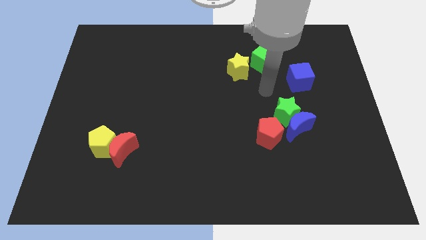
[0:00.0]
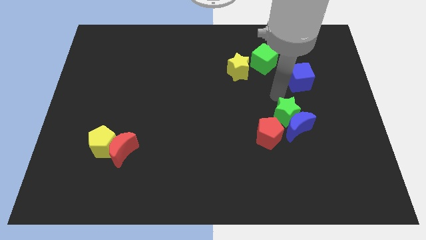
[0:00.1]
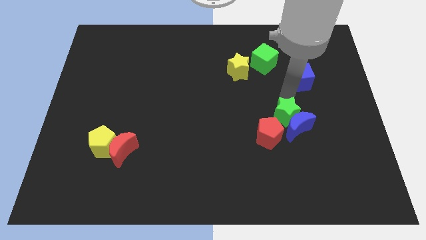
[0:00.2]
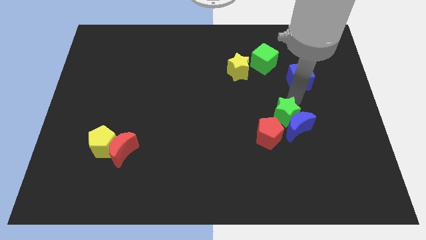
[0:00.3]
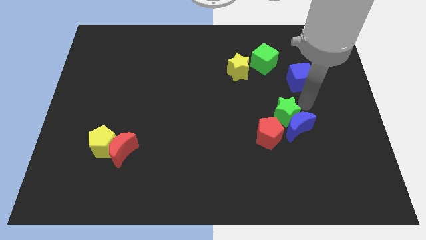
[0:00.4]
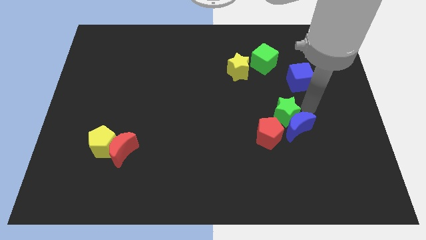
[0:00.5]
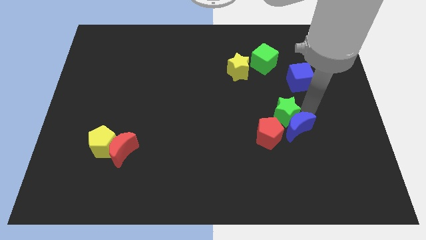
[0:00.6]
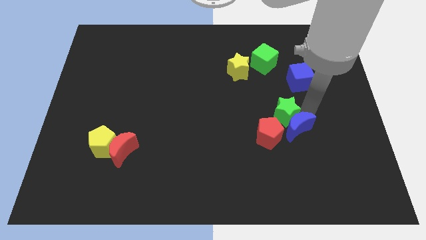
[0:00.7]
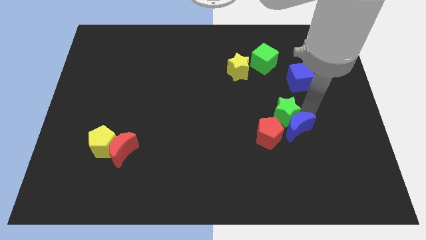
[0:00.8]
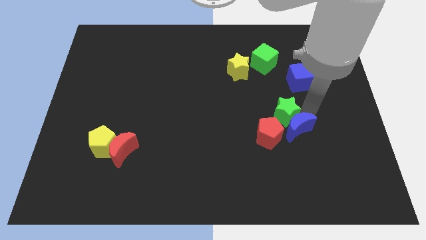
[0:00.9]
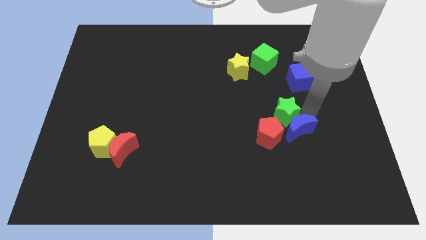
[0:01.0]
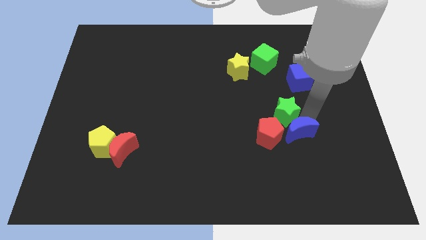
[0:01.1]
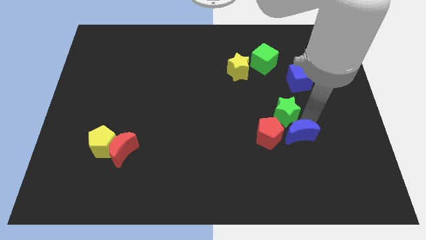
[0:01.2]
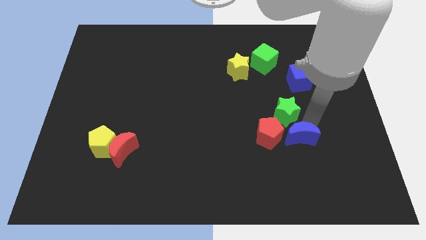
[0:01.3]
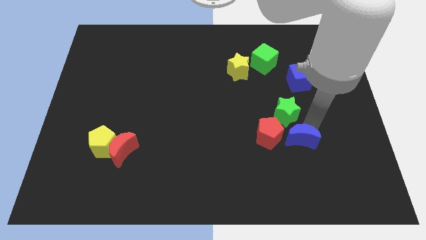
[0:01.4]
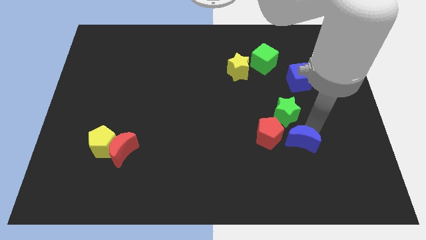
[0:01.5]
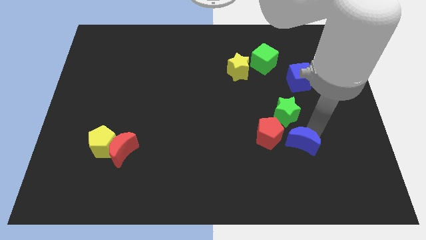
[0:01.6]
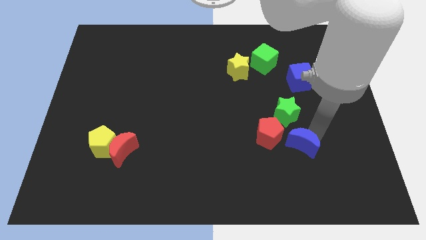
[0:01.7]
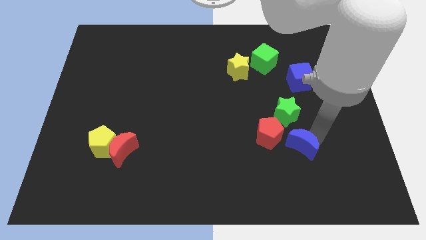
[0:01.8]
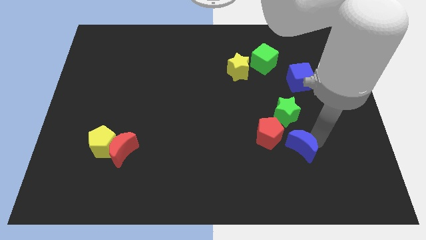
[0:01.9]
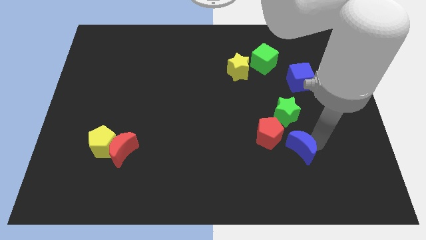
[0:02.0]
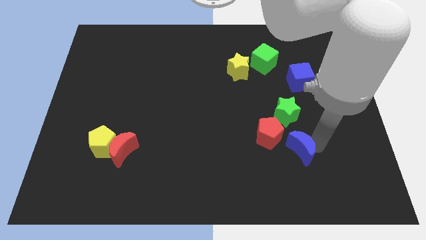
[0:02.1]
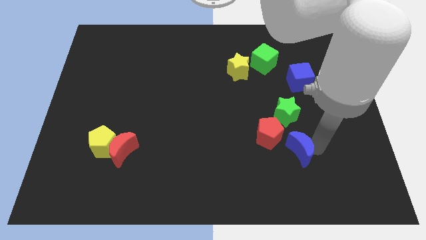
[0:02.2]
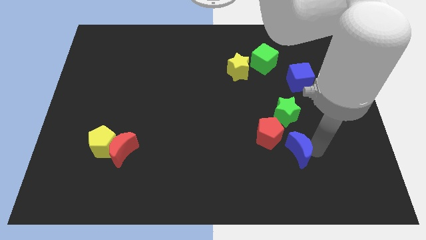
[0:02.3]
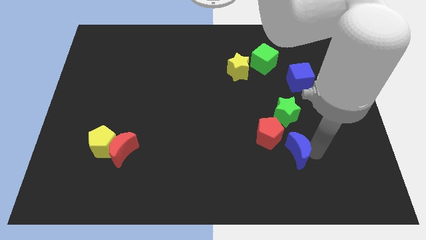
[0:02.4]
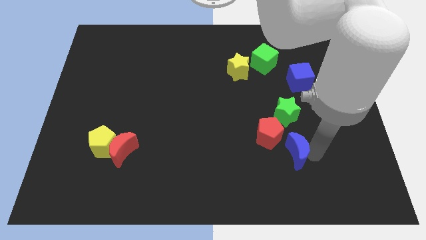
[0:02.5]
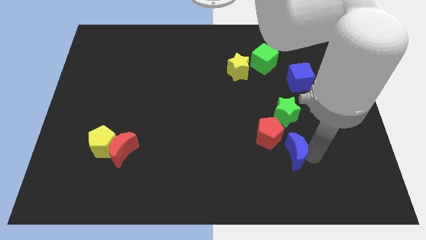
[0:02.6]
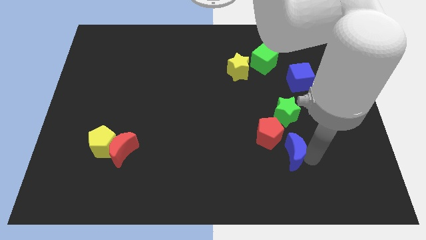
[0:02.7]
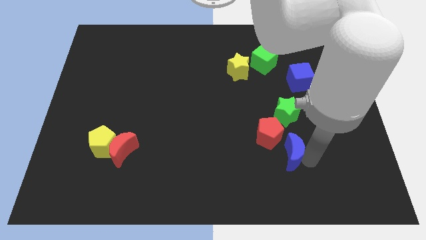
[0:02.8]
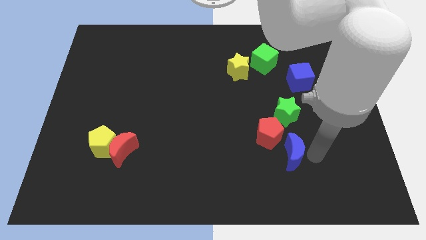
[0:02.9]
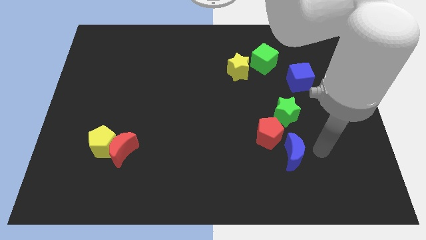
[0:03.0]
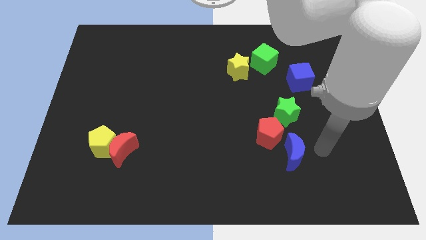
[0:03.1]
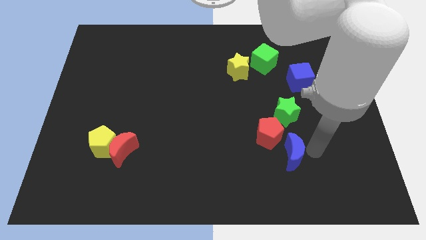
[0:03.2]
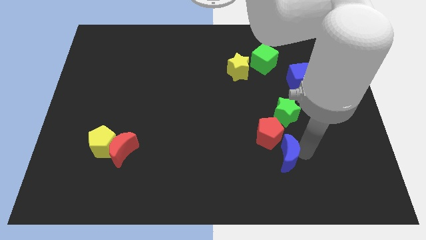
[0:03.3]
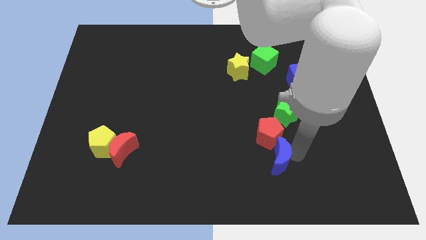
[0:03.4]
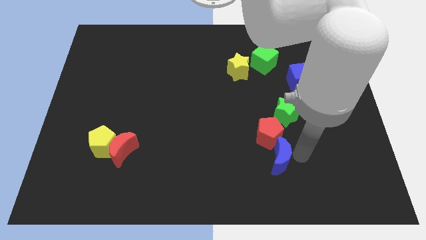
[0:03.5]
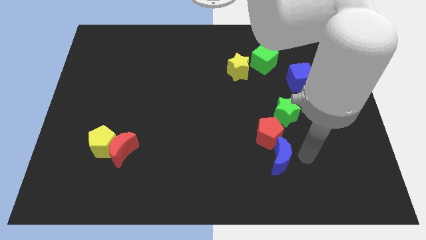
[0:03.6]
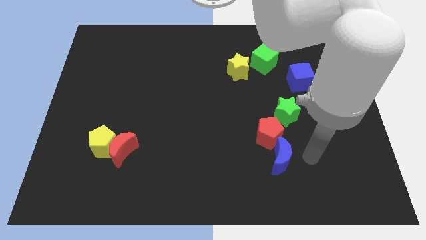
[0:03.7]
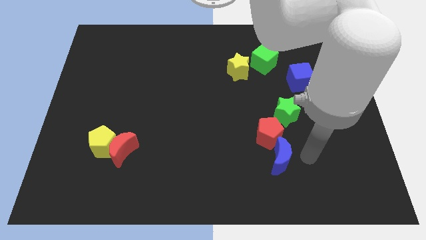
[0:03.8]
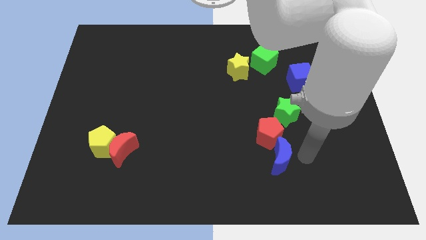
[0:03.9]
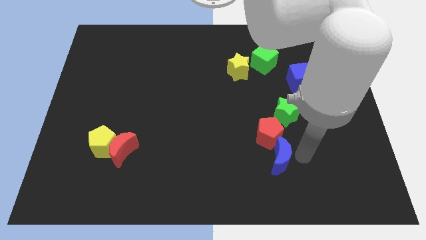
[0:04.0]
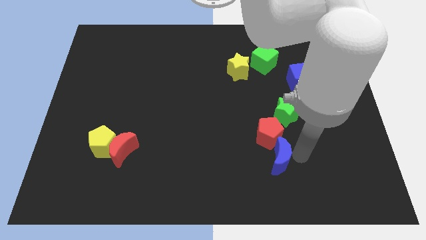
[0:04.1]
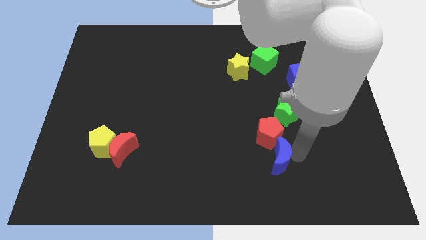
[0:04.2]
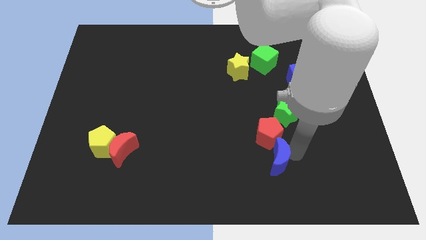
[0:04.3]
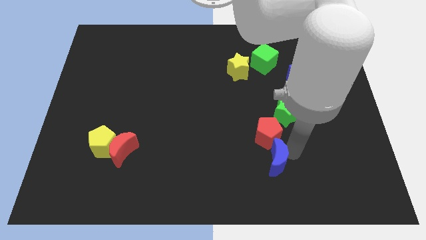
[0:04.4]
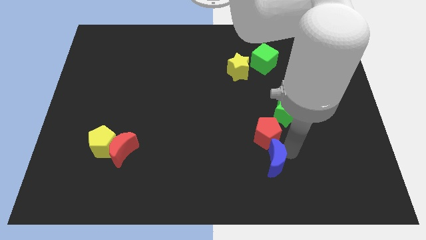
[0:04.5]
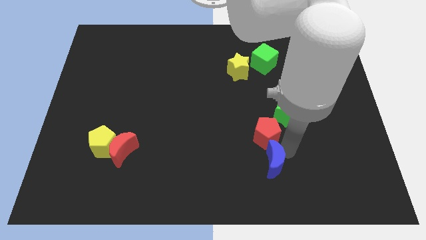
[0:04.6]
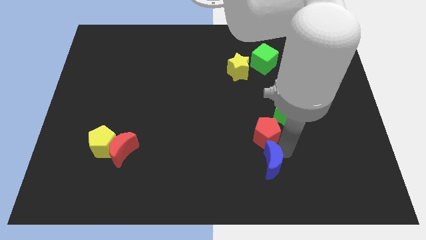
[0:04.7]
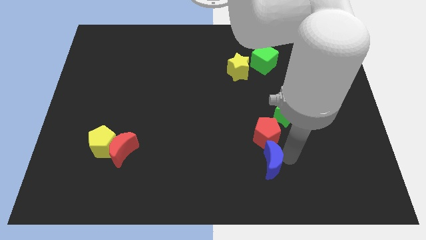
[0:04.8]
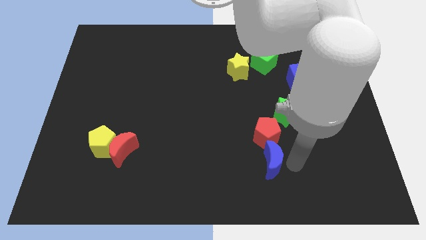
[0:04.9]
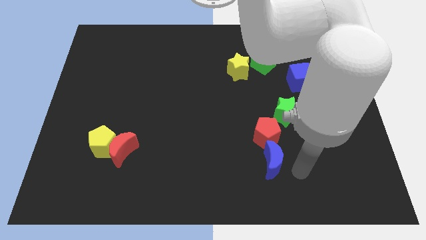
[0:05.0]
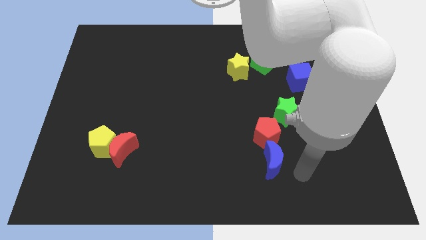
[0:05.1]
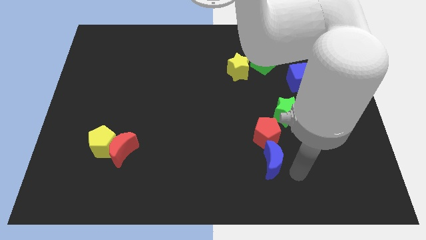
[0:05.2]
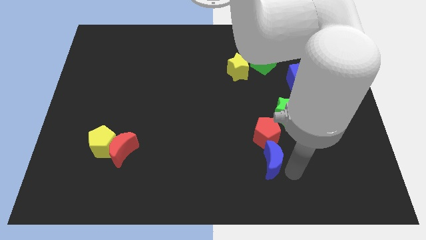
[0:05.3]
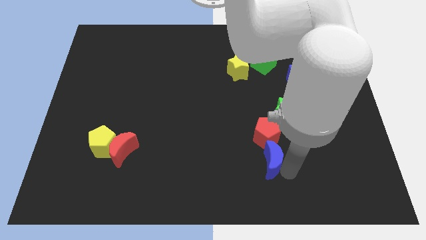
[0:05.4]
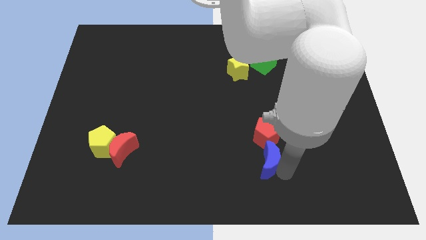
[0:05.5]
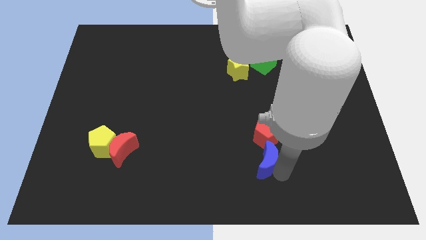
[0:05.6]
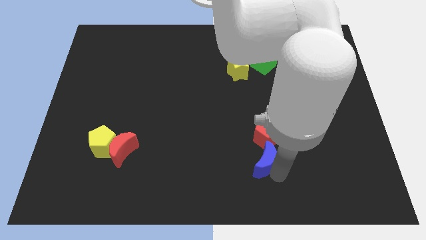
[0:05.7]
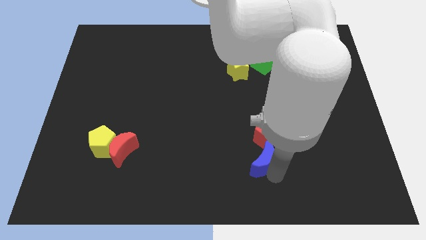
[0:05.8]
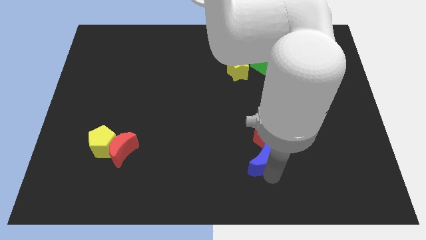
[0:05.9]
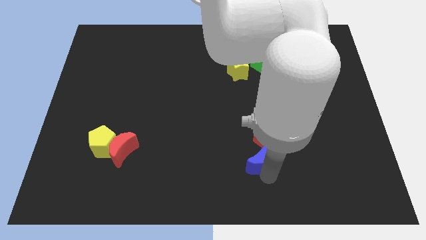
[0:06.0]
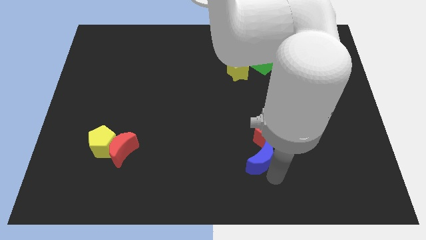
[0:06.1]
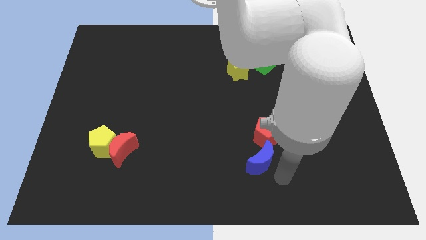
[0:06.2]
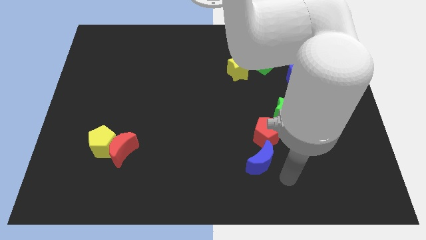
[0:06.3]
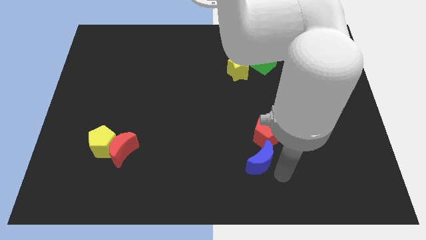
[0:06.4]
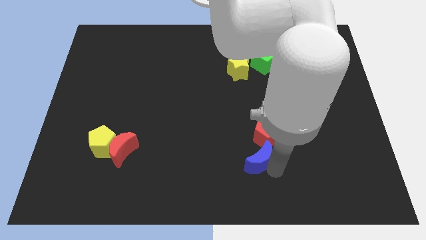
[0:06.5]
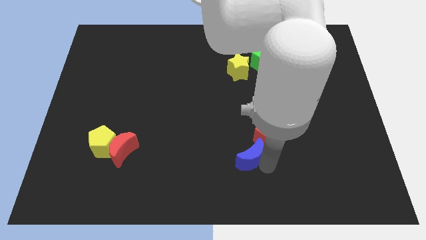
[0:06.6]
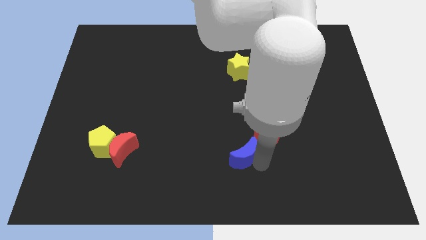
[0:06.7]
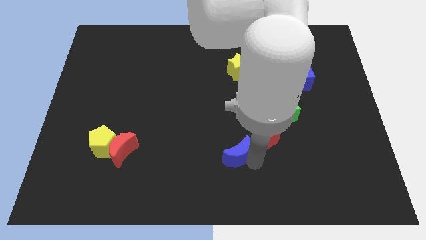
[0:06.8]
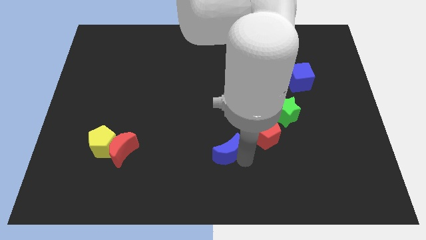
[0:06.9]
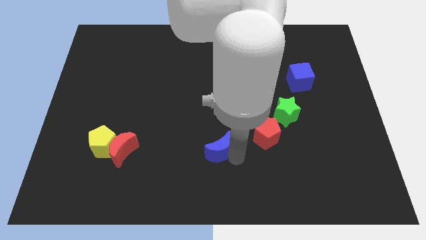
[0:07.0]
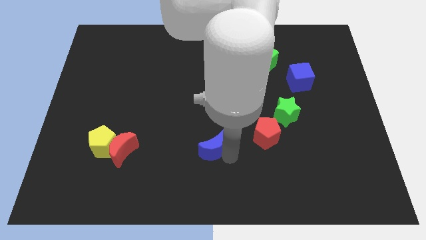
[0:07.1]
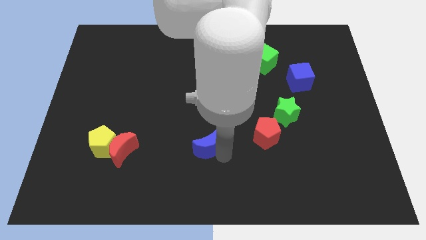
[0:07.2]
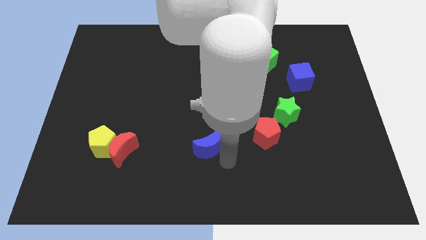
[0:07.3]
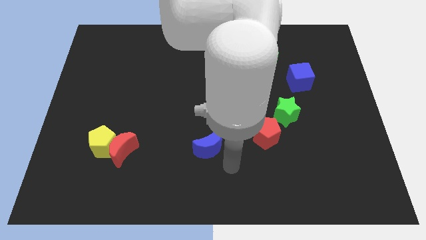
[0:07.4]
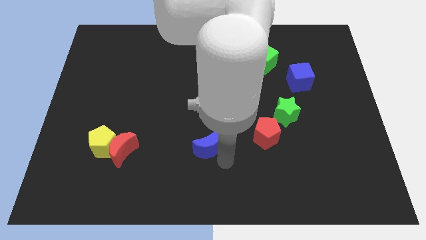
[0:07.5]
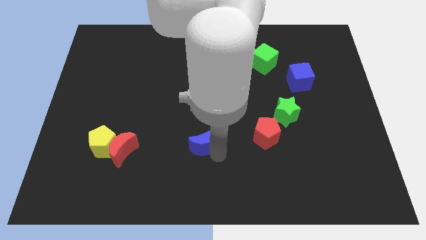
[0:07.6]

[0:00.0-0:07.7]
slide the blue moon left

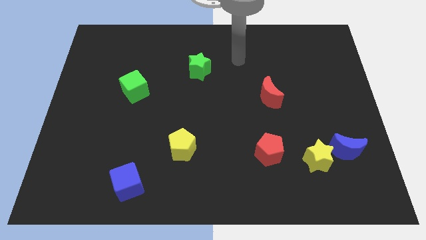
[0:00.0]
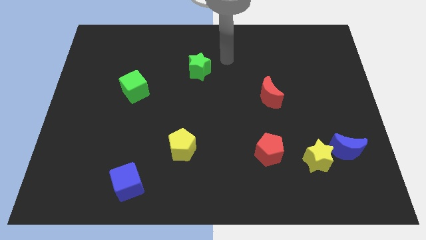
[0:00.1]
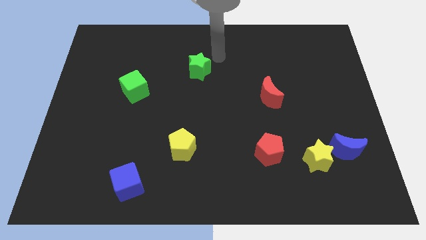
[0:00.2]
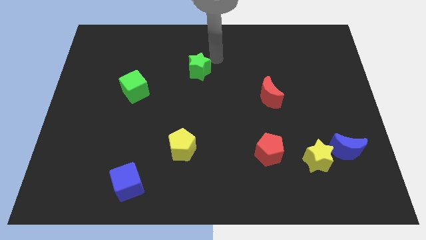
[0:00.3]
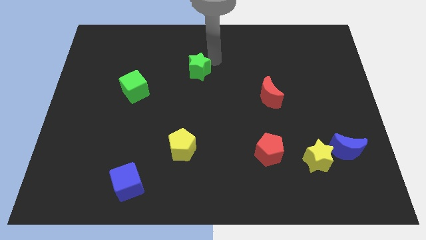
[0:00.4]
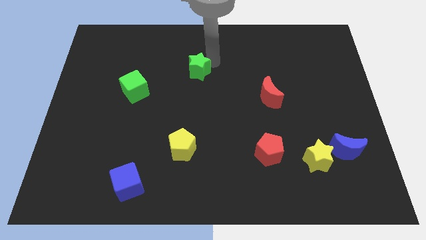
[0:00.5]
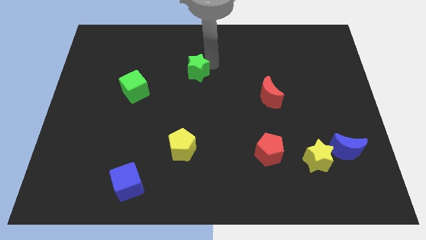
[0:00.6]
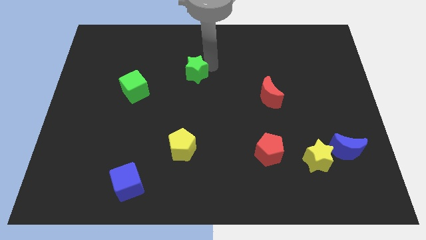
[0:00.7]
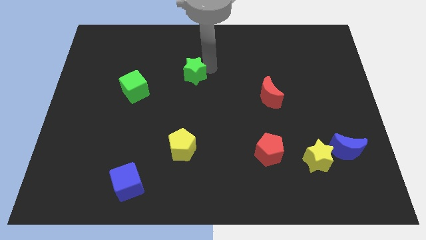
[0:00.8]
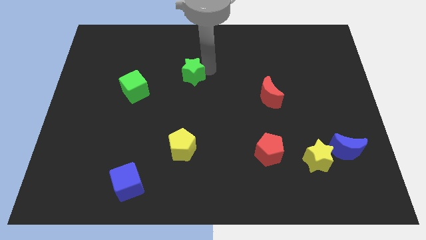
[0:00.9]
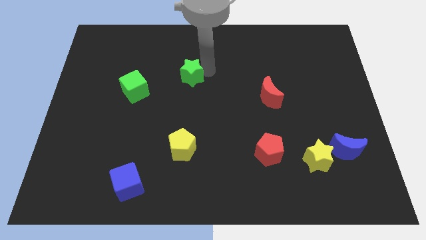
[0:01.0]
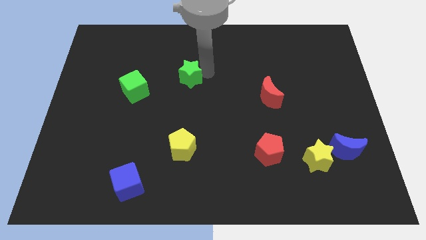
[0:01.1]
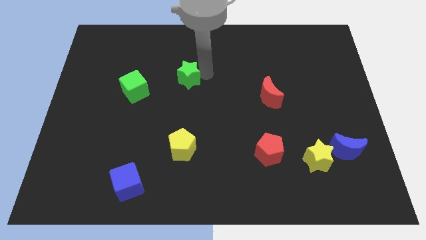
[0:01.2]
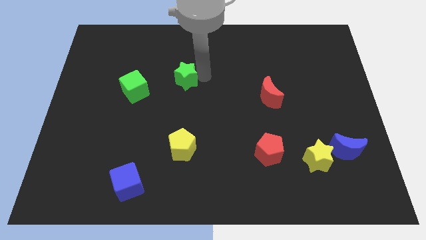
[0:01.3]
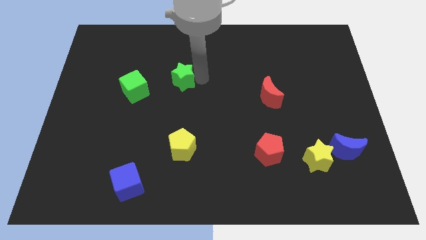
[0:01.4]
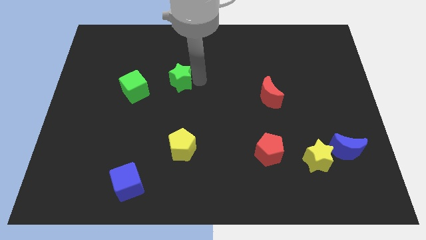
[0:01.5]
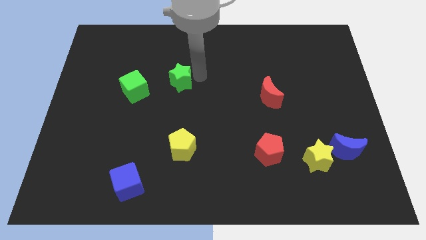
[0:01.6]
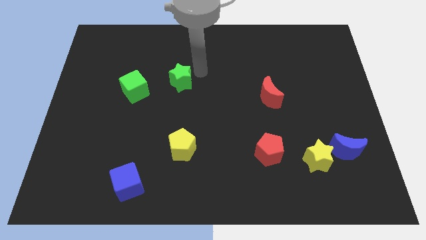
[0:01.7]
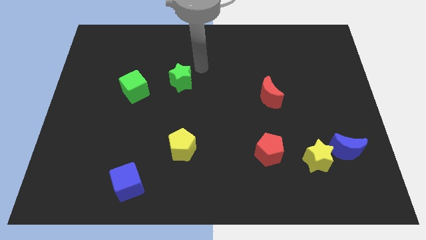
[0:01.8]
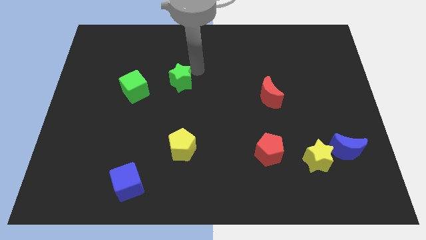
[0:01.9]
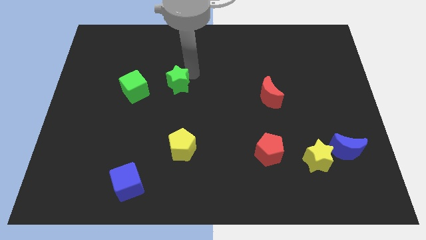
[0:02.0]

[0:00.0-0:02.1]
slightly slide the green star downwards and left diagonally
